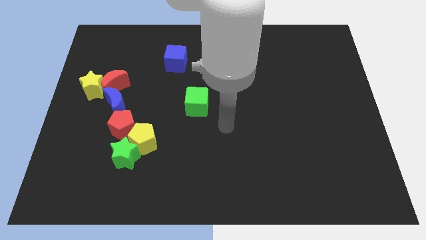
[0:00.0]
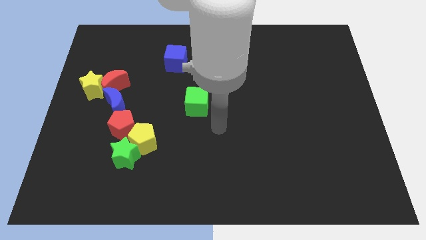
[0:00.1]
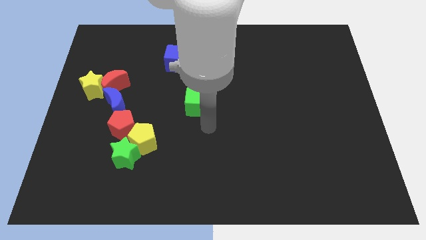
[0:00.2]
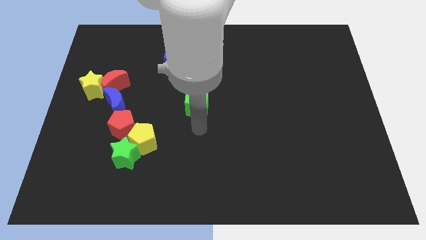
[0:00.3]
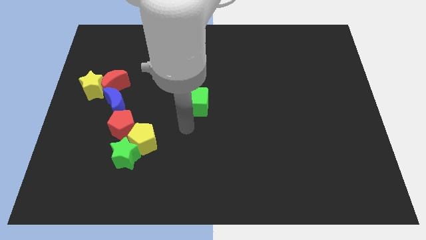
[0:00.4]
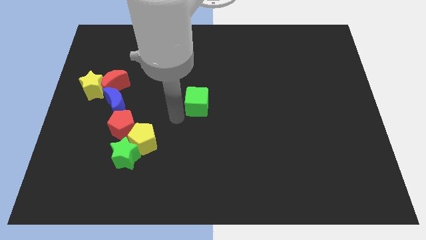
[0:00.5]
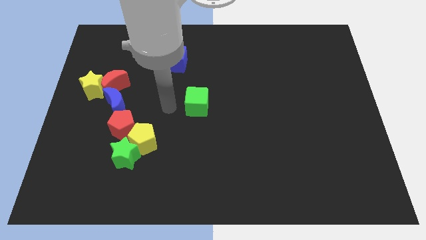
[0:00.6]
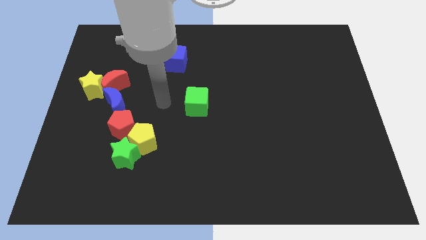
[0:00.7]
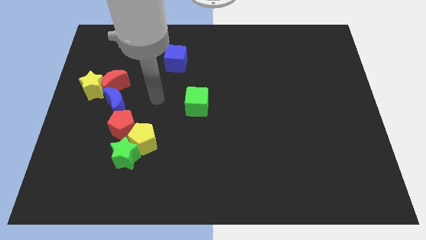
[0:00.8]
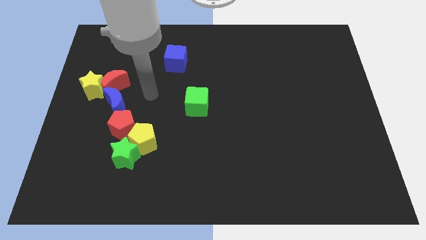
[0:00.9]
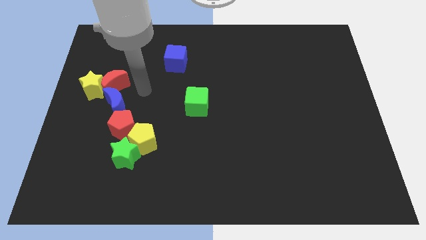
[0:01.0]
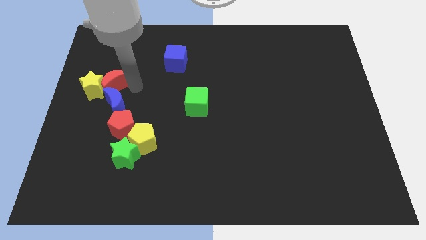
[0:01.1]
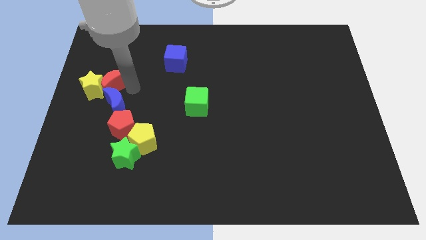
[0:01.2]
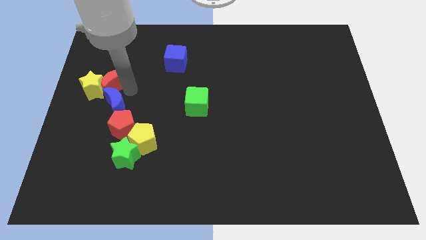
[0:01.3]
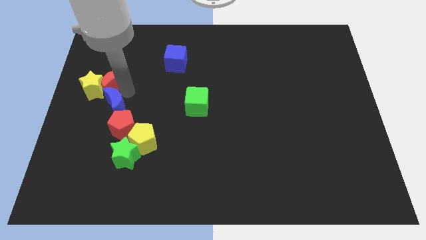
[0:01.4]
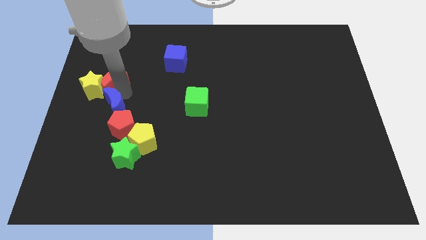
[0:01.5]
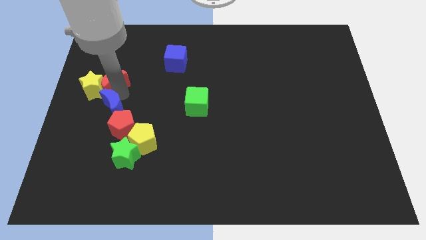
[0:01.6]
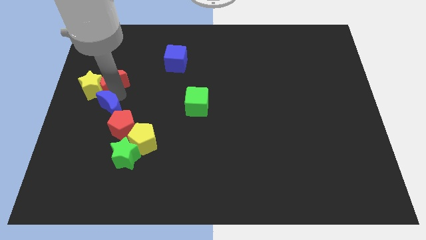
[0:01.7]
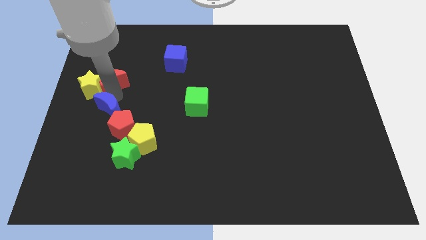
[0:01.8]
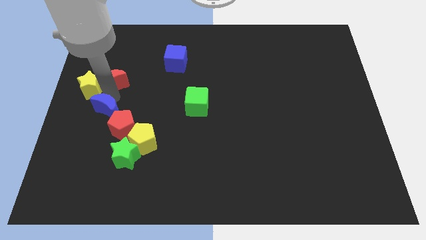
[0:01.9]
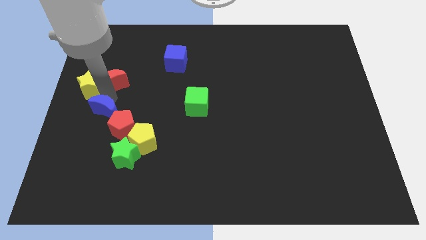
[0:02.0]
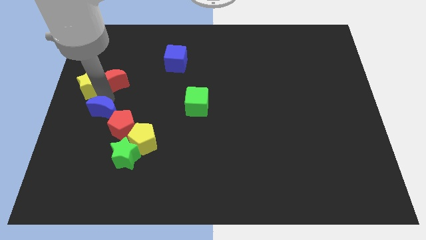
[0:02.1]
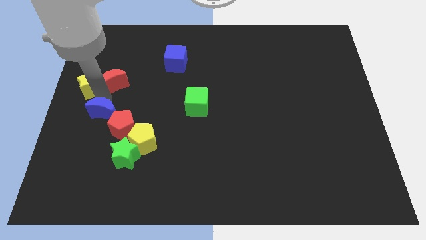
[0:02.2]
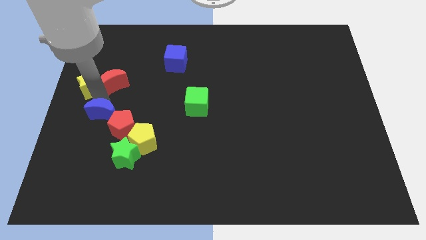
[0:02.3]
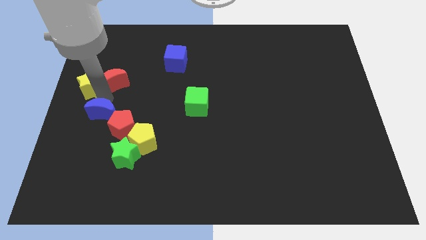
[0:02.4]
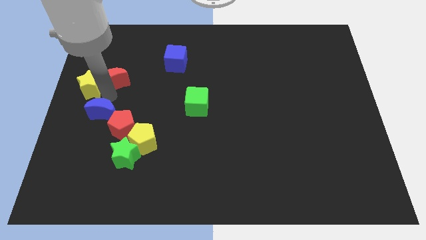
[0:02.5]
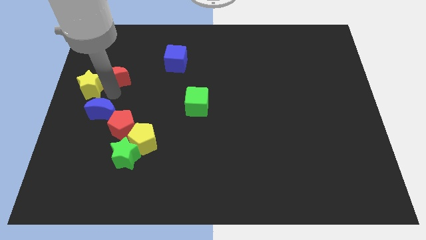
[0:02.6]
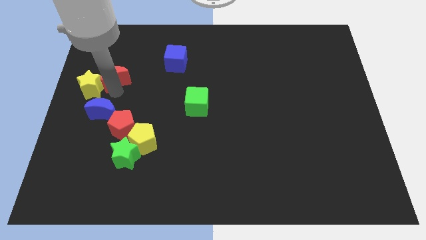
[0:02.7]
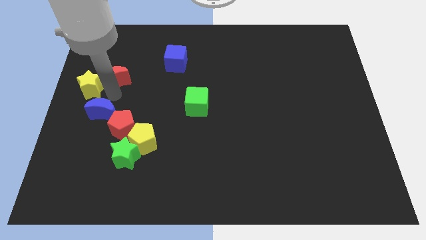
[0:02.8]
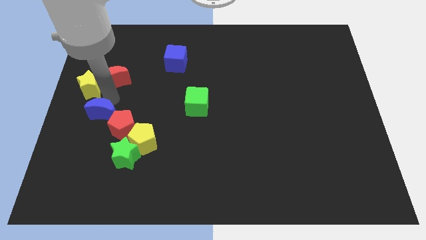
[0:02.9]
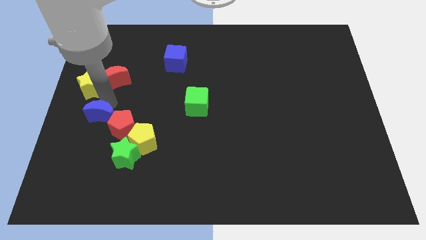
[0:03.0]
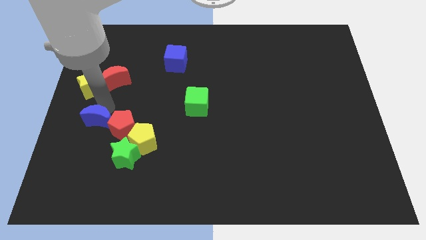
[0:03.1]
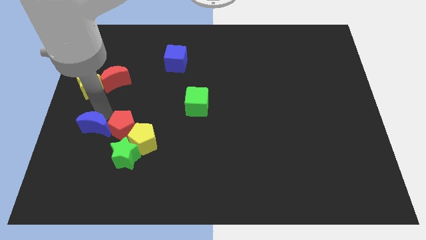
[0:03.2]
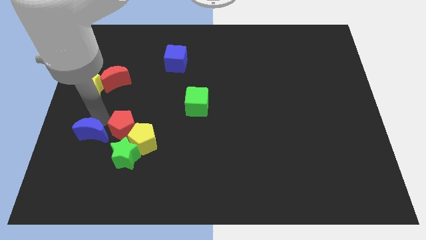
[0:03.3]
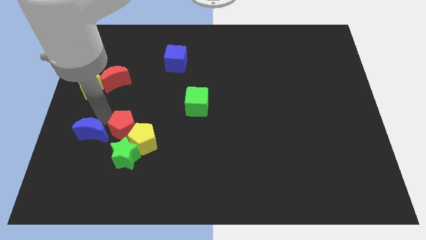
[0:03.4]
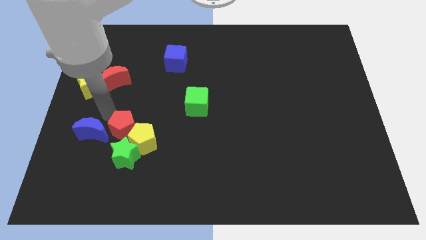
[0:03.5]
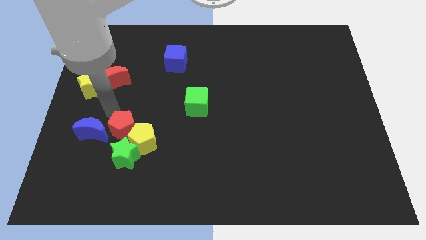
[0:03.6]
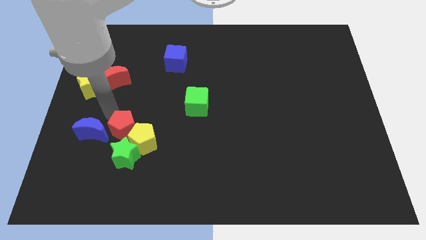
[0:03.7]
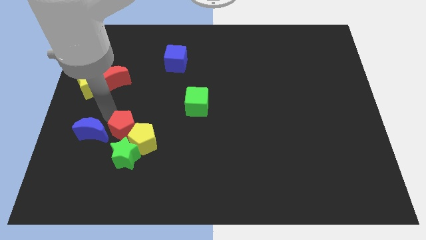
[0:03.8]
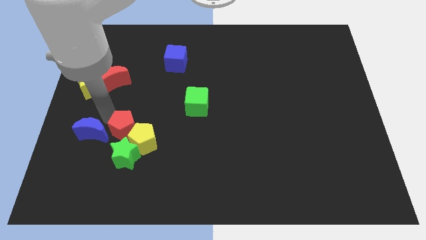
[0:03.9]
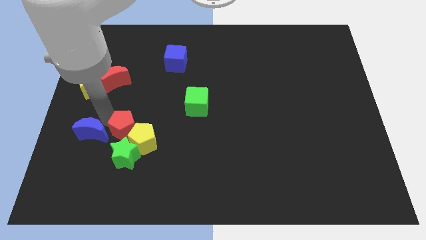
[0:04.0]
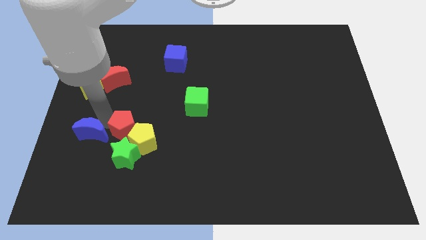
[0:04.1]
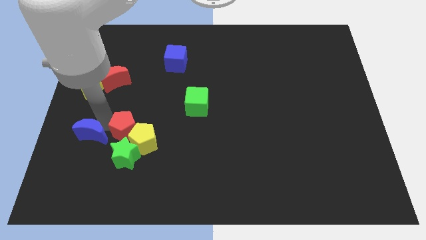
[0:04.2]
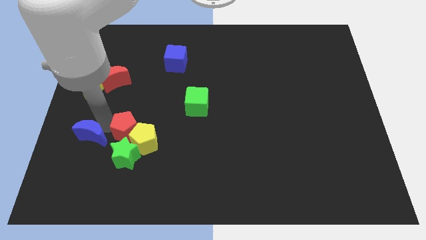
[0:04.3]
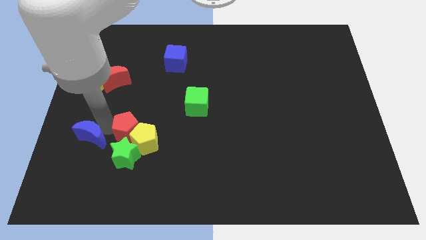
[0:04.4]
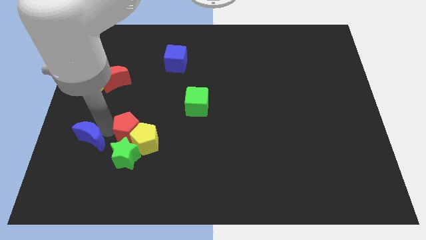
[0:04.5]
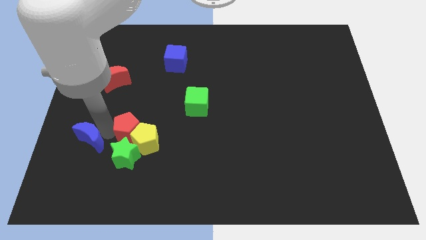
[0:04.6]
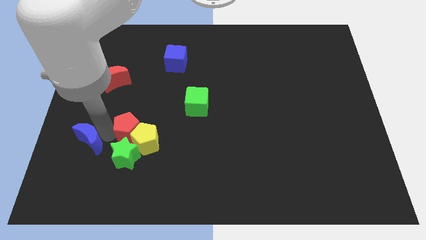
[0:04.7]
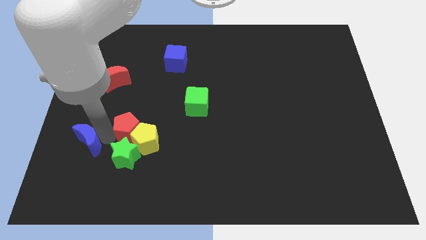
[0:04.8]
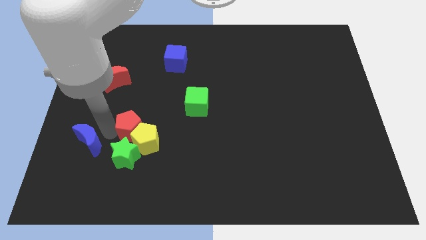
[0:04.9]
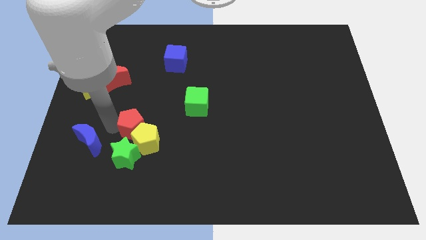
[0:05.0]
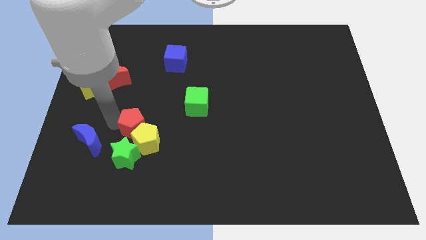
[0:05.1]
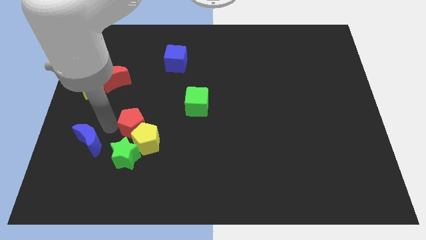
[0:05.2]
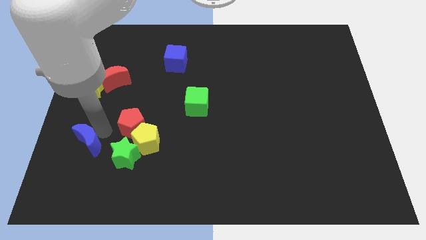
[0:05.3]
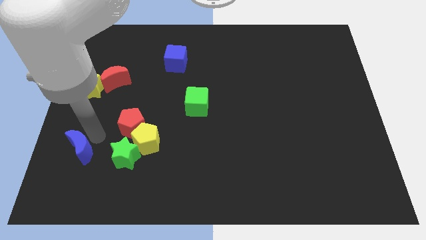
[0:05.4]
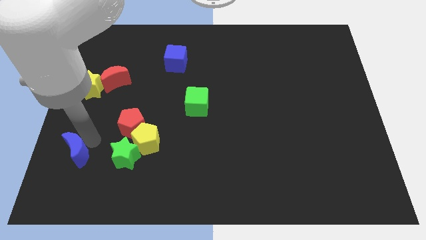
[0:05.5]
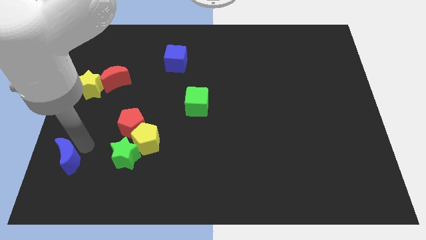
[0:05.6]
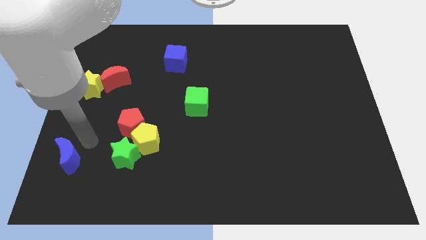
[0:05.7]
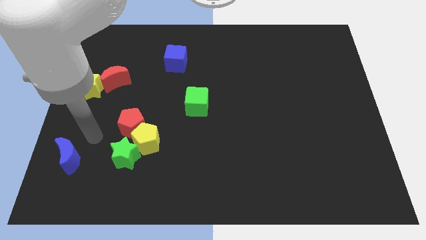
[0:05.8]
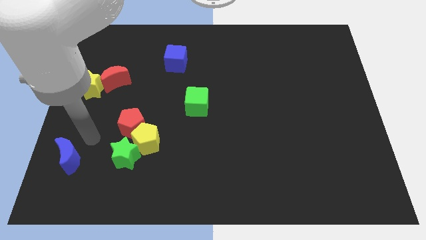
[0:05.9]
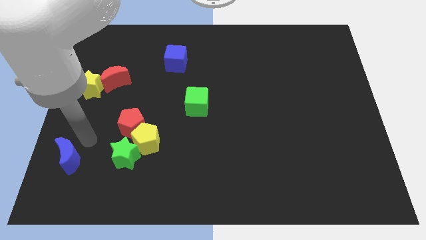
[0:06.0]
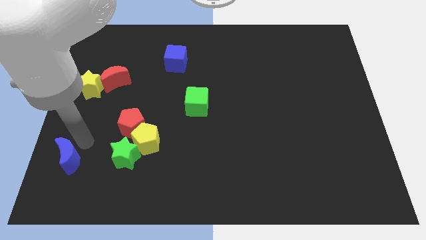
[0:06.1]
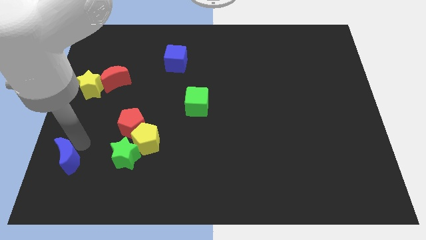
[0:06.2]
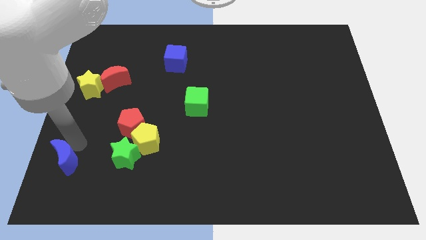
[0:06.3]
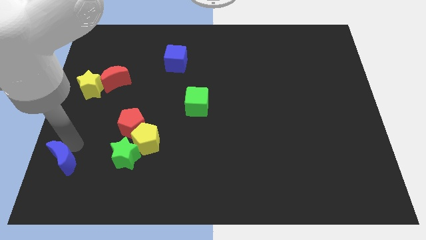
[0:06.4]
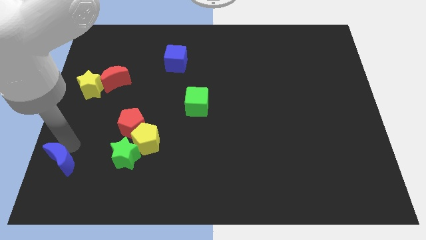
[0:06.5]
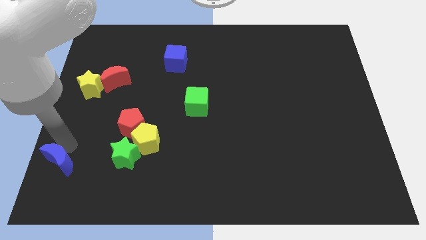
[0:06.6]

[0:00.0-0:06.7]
move the blue moon to the bottom left
